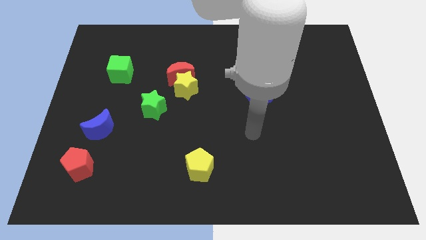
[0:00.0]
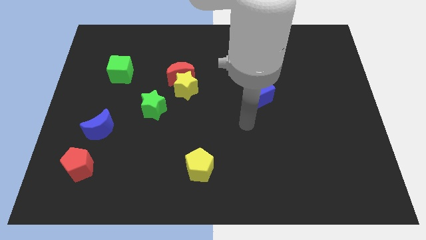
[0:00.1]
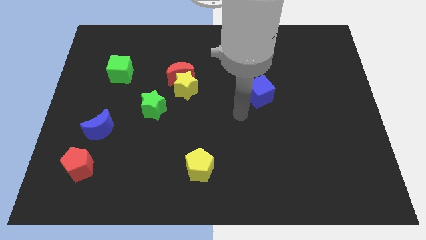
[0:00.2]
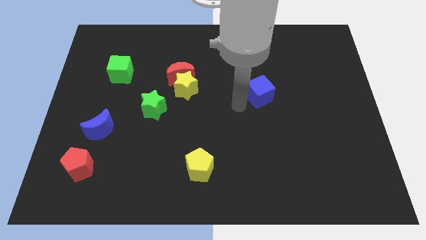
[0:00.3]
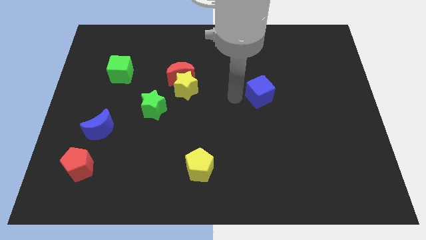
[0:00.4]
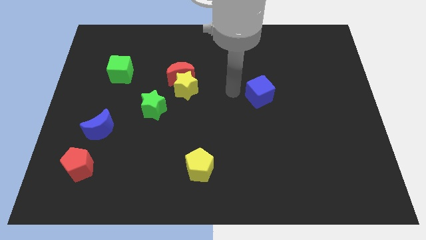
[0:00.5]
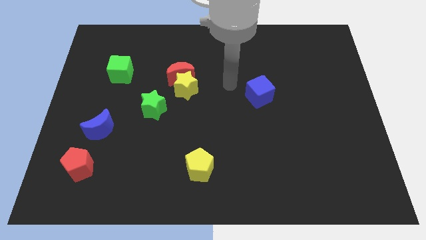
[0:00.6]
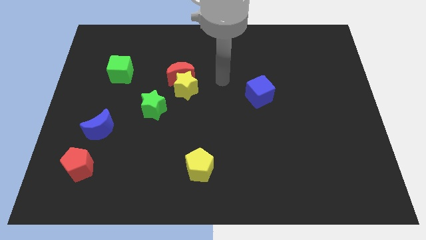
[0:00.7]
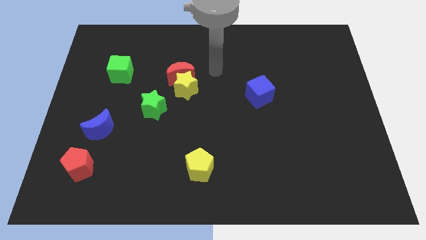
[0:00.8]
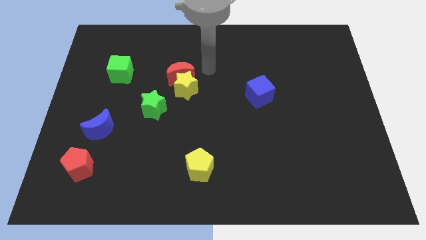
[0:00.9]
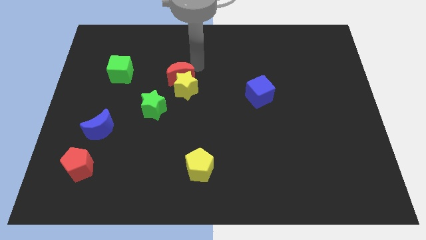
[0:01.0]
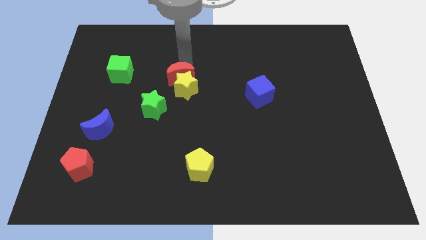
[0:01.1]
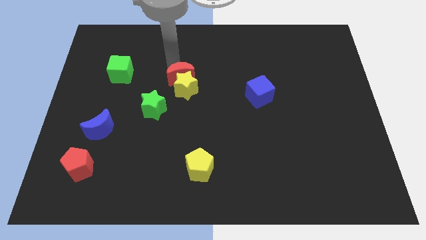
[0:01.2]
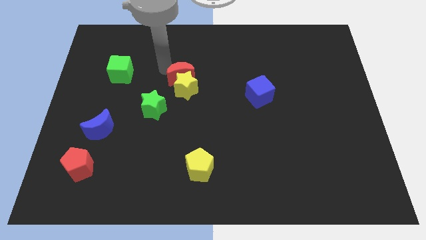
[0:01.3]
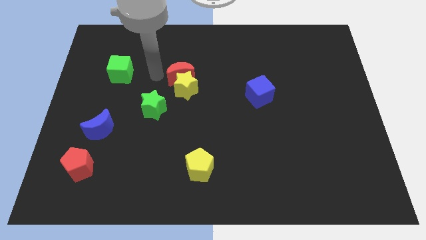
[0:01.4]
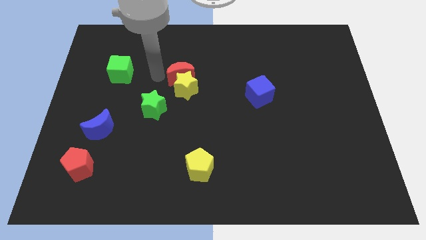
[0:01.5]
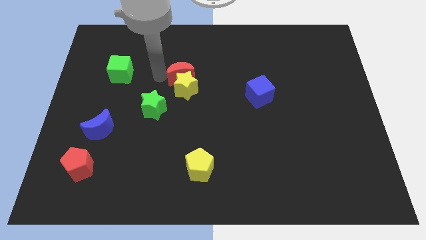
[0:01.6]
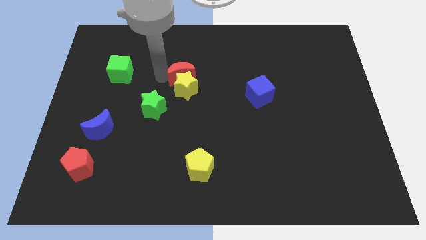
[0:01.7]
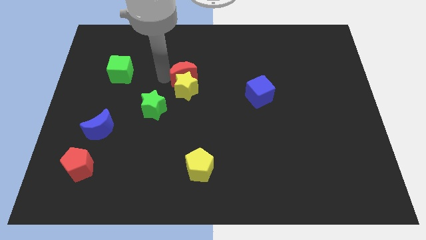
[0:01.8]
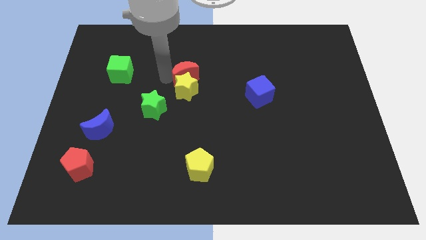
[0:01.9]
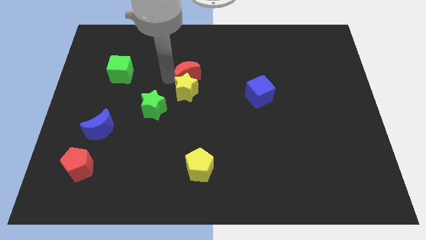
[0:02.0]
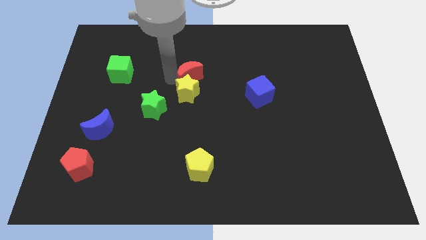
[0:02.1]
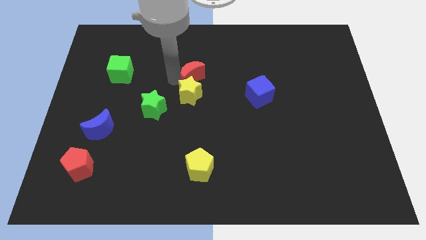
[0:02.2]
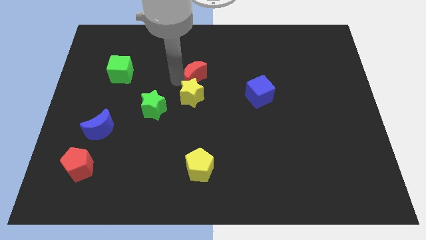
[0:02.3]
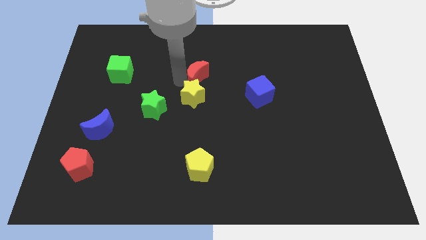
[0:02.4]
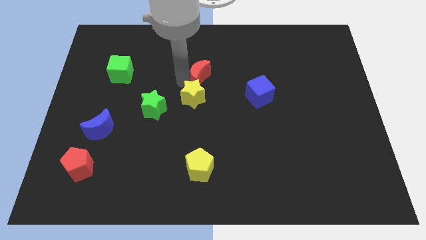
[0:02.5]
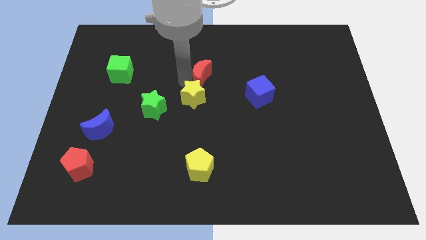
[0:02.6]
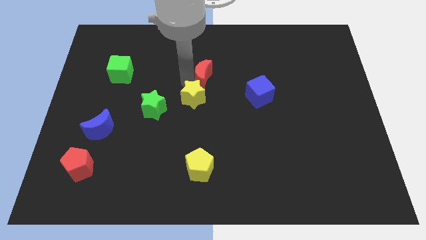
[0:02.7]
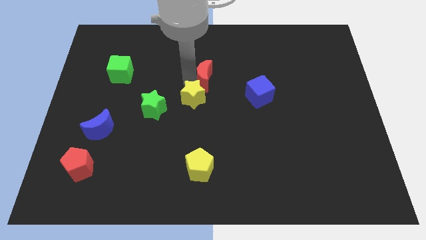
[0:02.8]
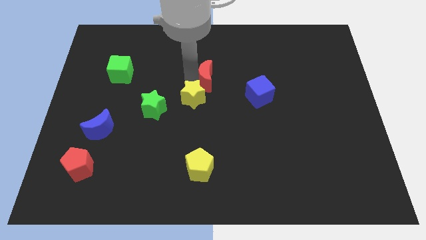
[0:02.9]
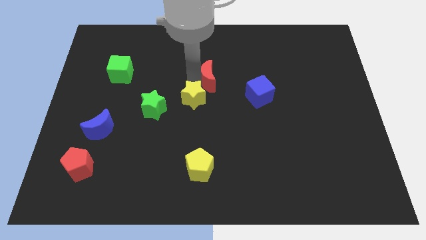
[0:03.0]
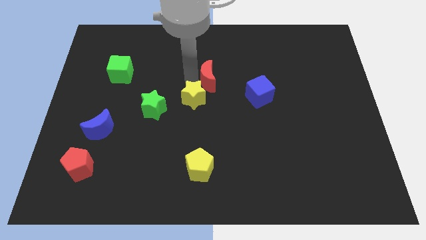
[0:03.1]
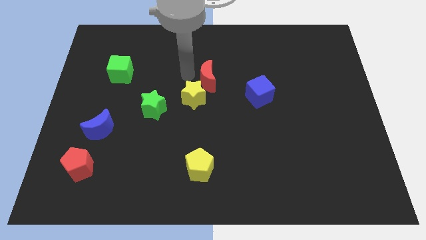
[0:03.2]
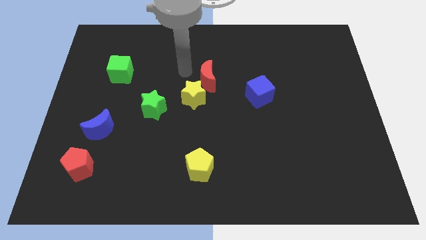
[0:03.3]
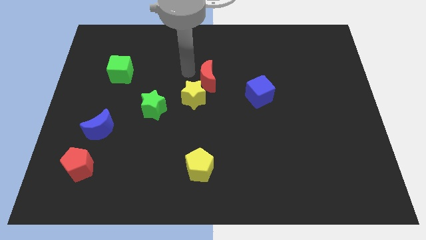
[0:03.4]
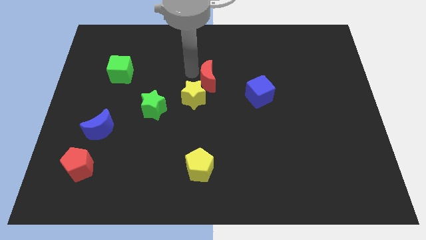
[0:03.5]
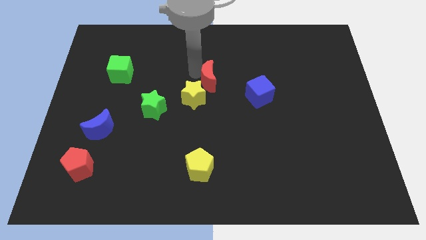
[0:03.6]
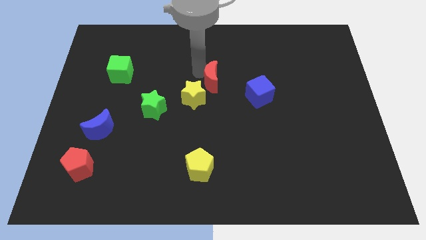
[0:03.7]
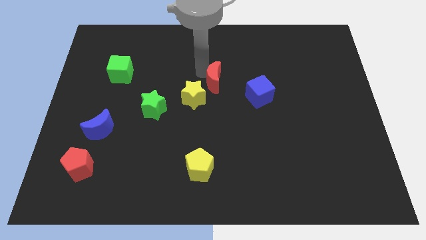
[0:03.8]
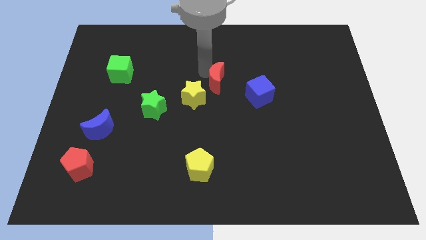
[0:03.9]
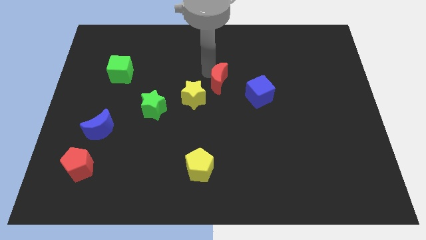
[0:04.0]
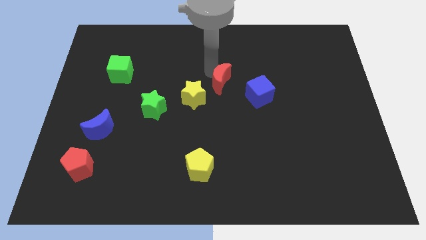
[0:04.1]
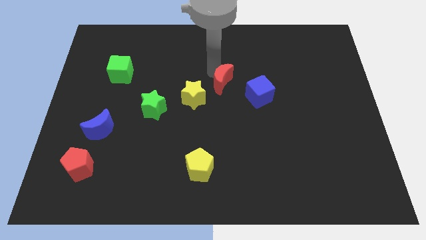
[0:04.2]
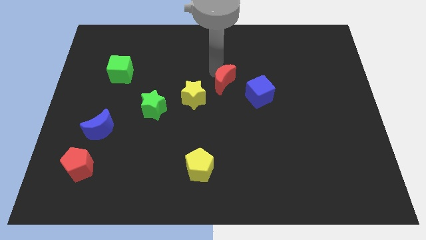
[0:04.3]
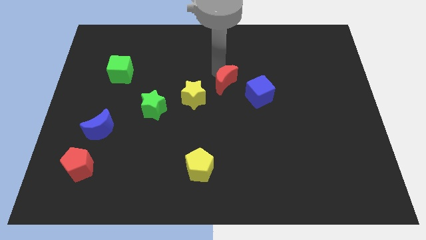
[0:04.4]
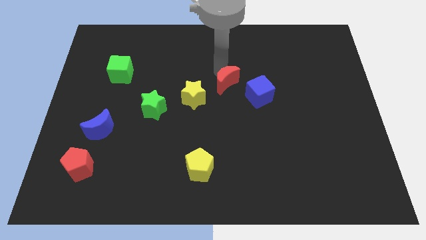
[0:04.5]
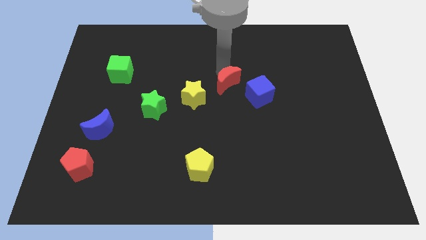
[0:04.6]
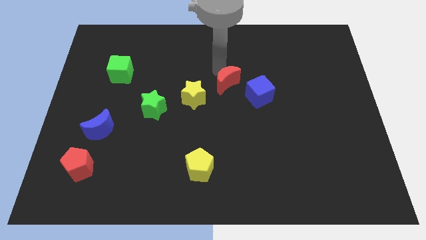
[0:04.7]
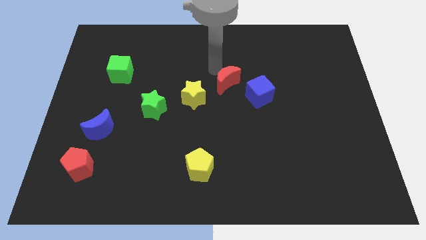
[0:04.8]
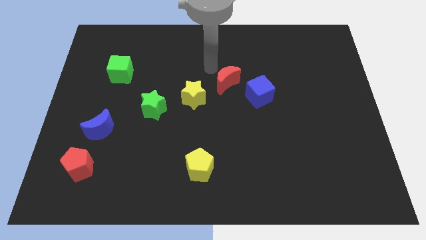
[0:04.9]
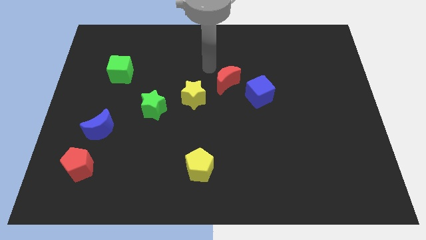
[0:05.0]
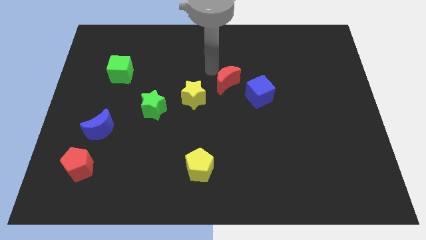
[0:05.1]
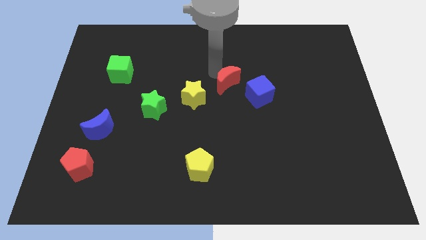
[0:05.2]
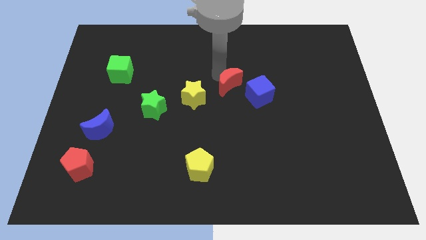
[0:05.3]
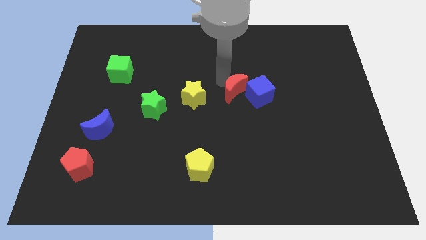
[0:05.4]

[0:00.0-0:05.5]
push the red moon to the blue cube

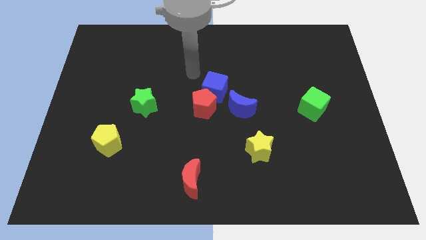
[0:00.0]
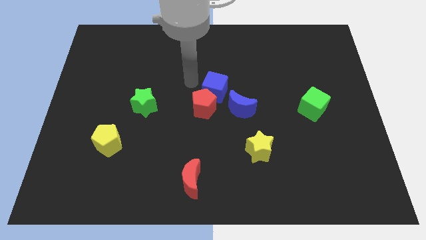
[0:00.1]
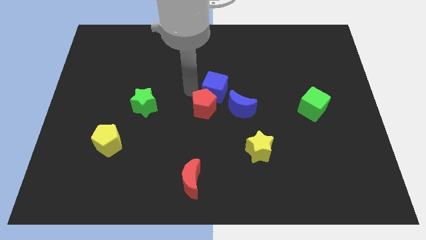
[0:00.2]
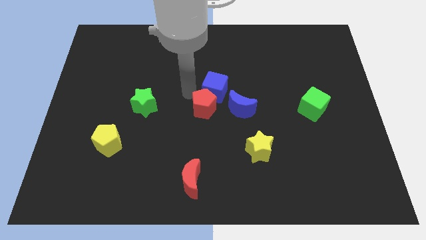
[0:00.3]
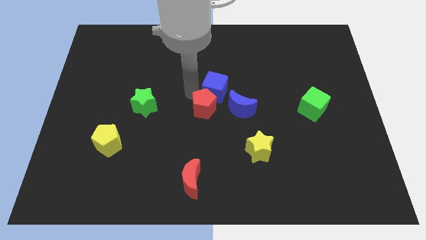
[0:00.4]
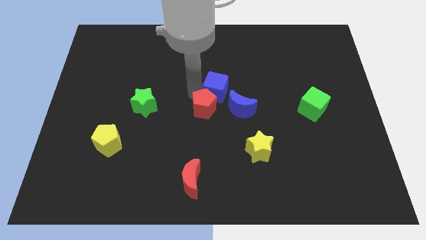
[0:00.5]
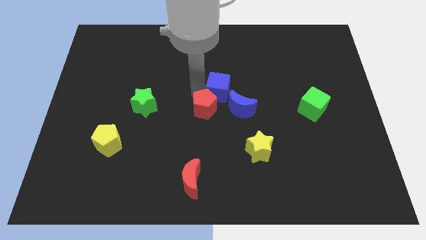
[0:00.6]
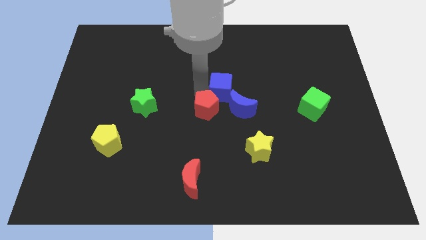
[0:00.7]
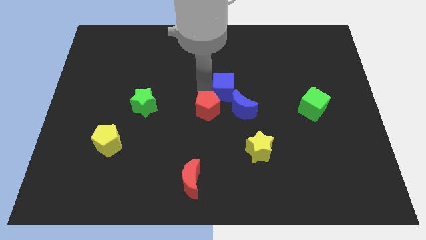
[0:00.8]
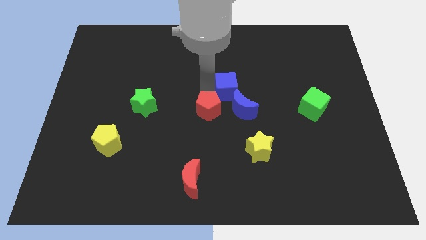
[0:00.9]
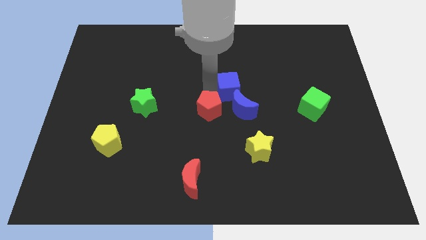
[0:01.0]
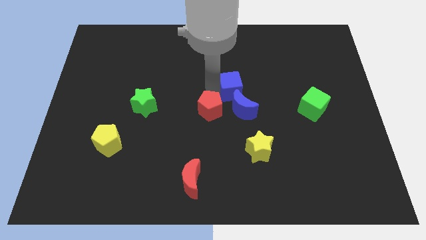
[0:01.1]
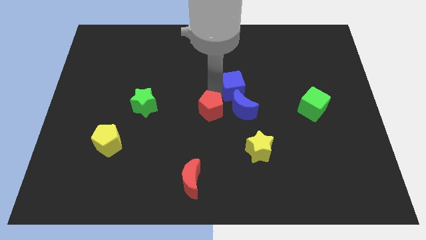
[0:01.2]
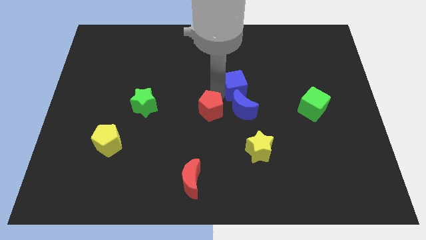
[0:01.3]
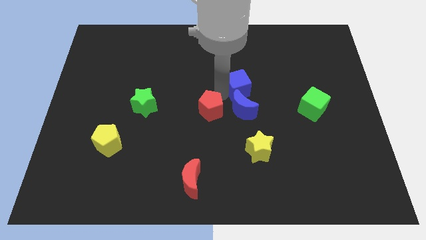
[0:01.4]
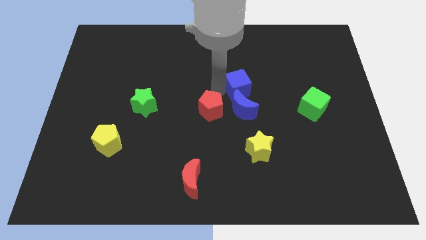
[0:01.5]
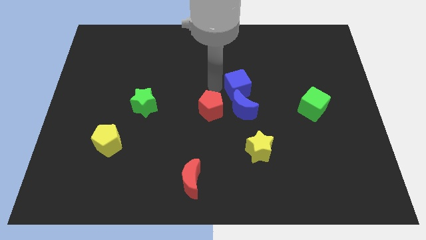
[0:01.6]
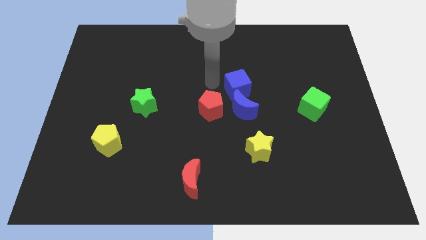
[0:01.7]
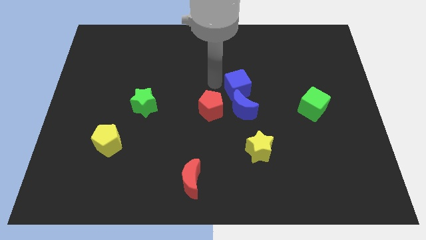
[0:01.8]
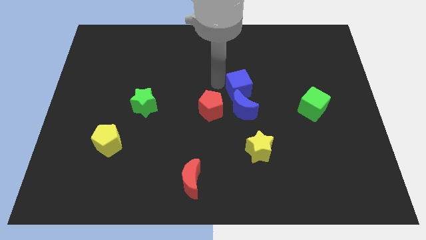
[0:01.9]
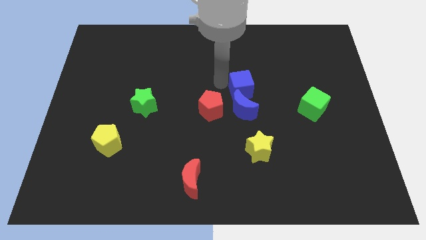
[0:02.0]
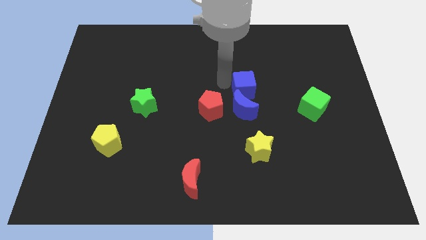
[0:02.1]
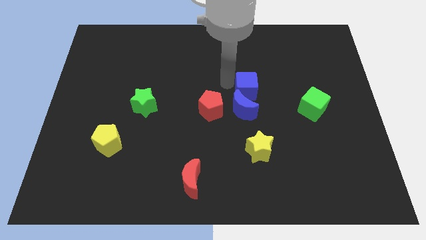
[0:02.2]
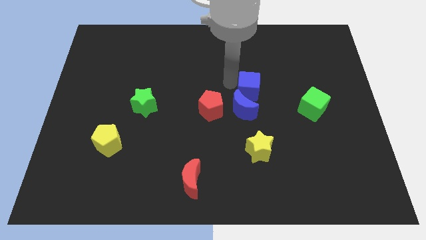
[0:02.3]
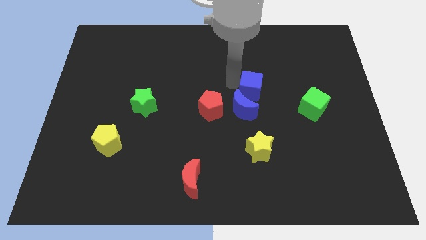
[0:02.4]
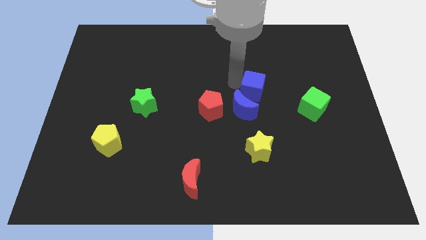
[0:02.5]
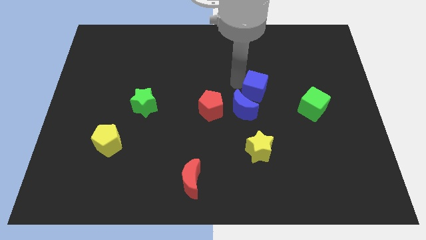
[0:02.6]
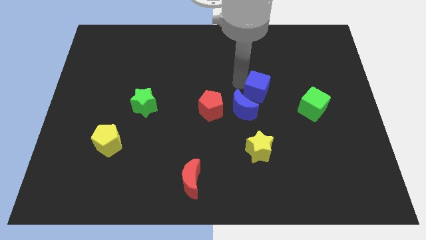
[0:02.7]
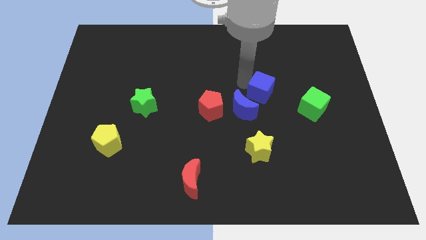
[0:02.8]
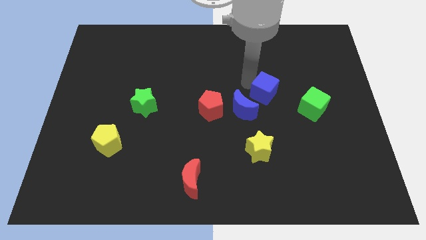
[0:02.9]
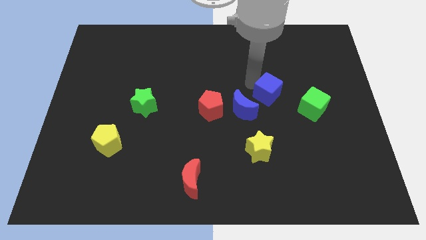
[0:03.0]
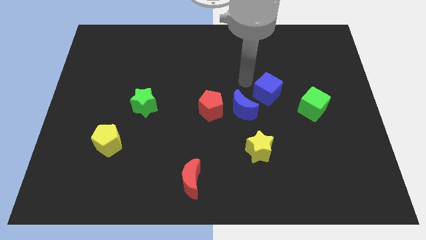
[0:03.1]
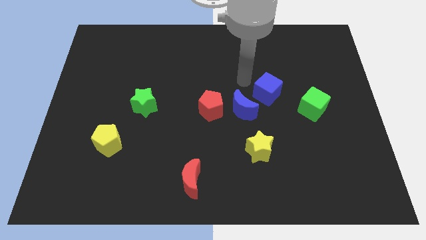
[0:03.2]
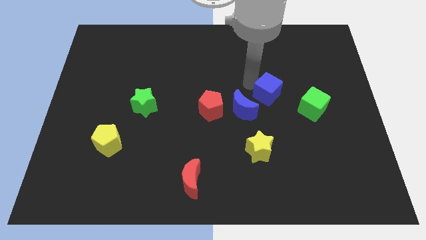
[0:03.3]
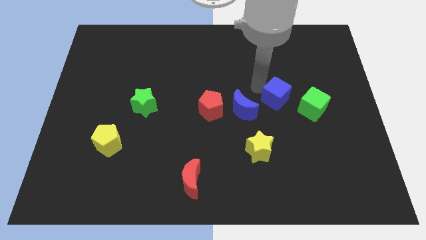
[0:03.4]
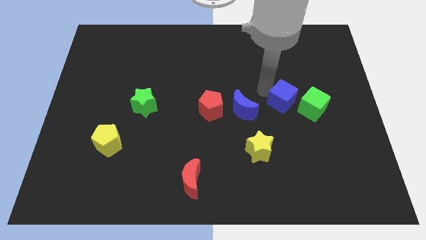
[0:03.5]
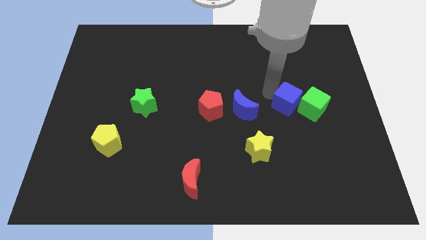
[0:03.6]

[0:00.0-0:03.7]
push the blue cube to the green cube
